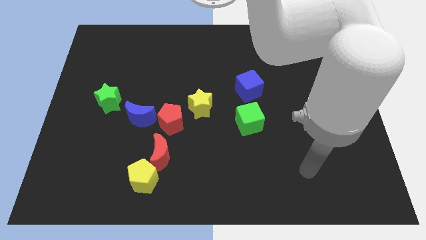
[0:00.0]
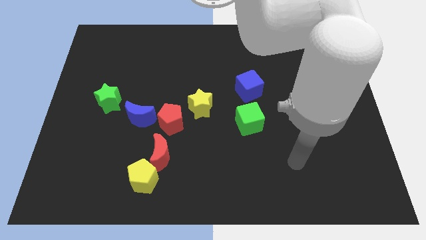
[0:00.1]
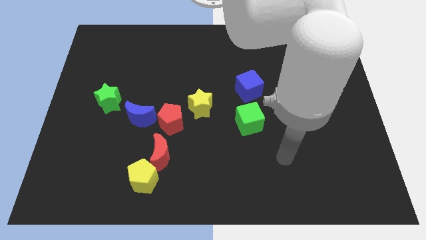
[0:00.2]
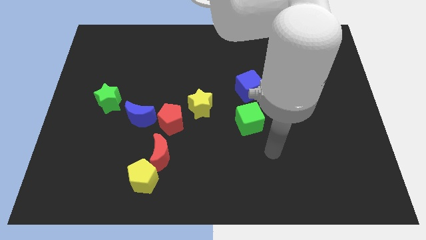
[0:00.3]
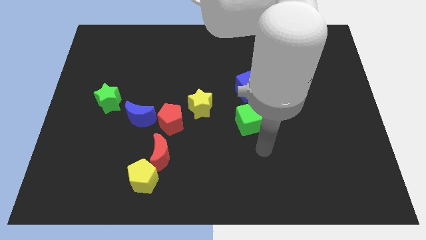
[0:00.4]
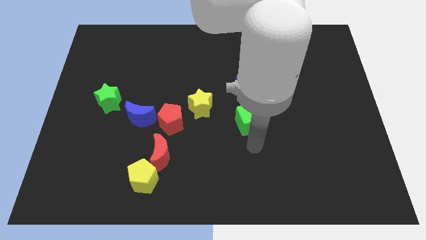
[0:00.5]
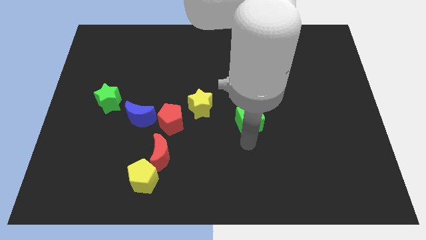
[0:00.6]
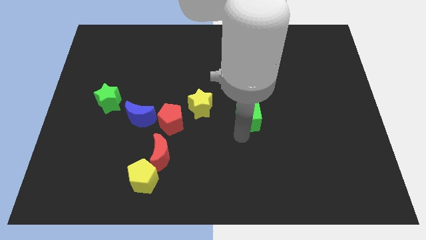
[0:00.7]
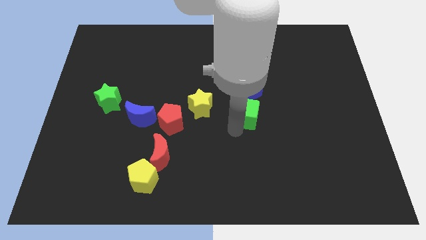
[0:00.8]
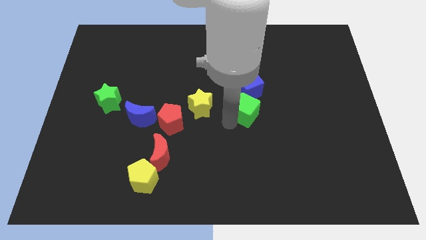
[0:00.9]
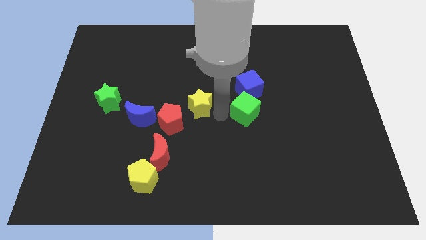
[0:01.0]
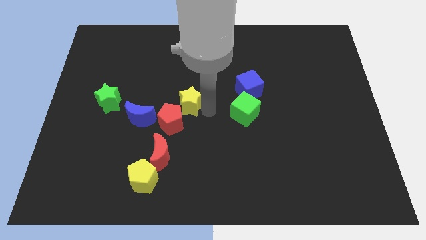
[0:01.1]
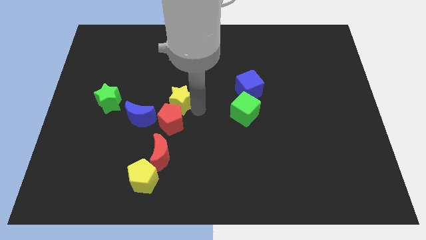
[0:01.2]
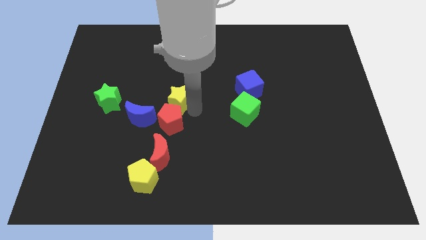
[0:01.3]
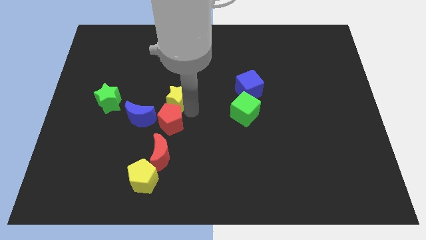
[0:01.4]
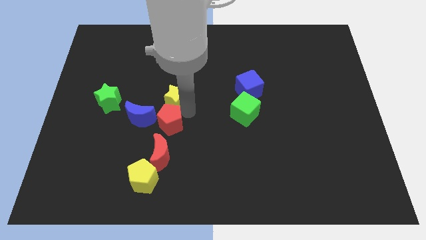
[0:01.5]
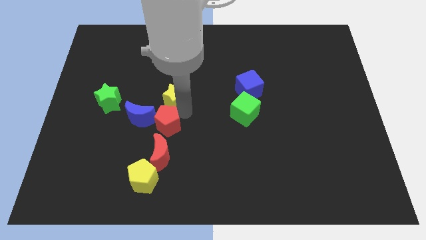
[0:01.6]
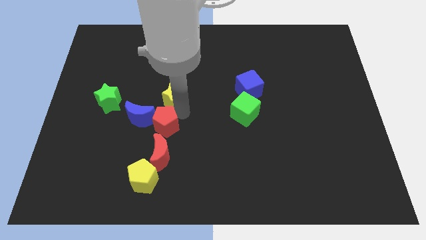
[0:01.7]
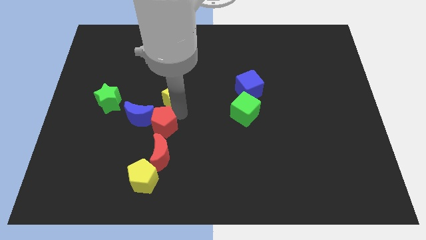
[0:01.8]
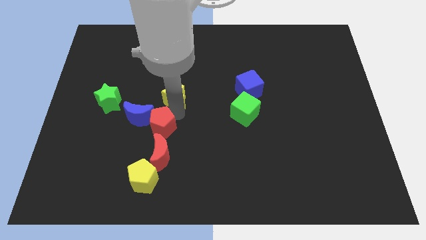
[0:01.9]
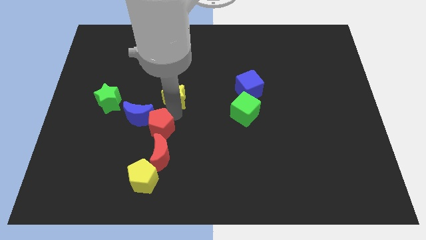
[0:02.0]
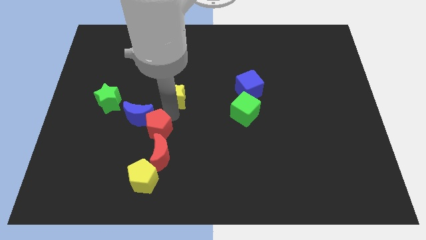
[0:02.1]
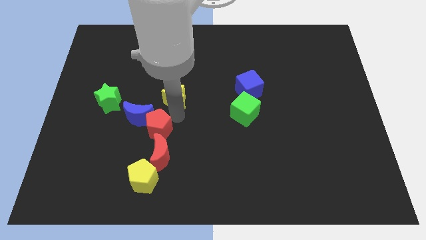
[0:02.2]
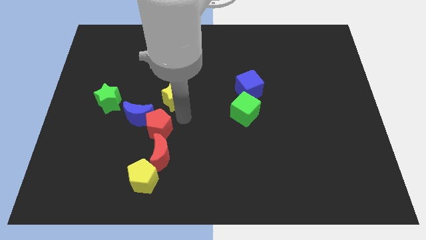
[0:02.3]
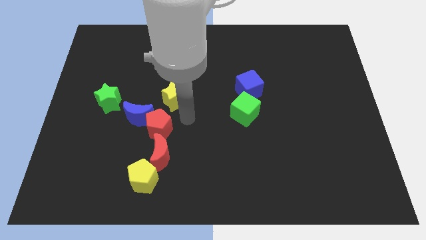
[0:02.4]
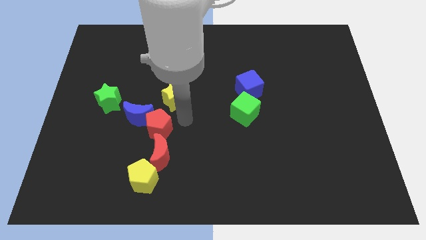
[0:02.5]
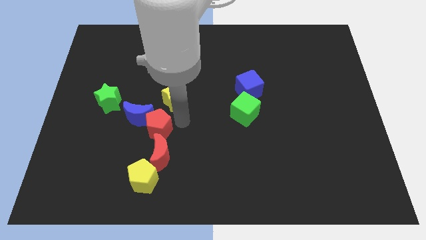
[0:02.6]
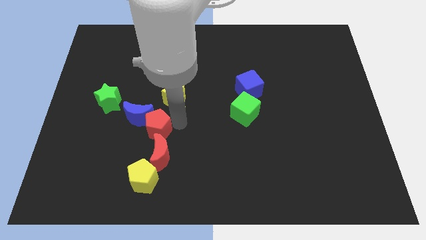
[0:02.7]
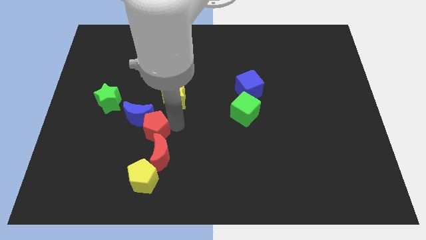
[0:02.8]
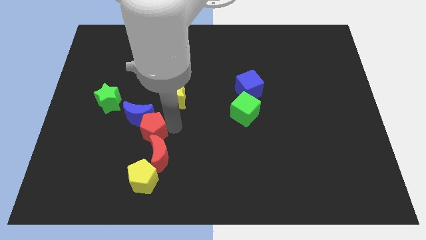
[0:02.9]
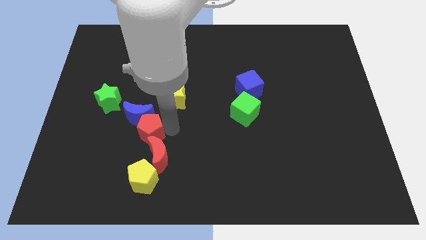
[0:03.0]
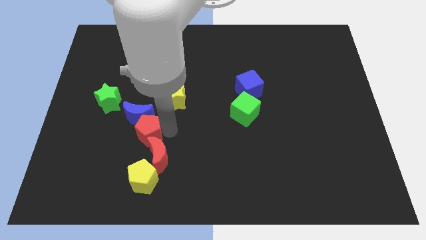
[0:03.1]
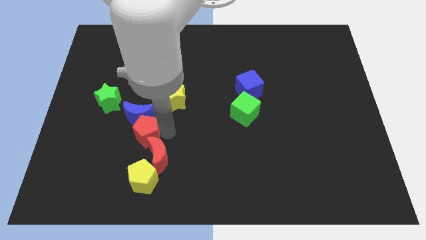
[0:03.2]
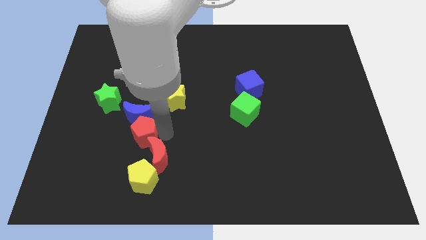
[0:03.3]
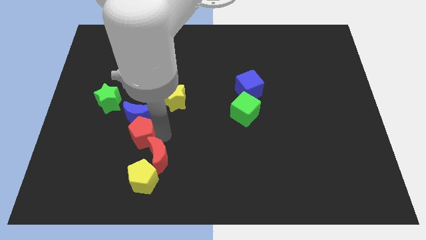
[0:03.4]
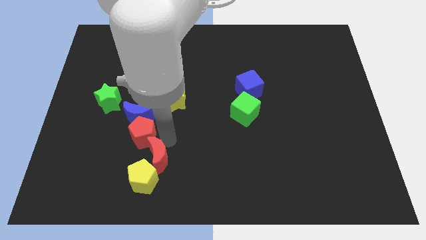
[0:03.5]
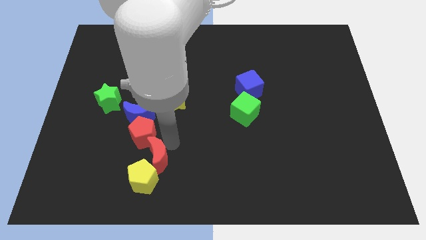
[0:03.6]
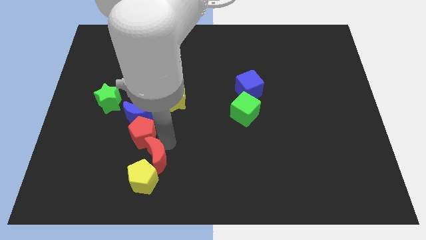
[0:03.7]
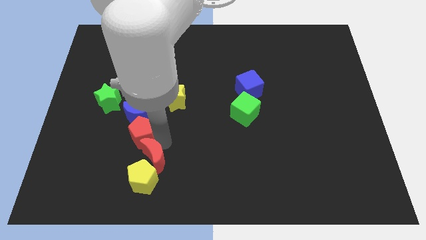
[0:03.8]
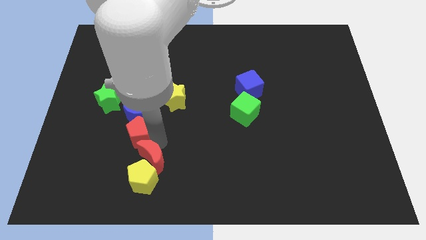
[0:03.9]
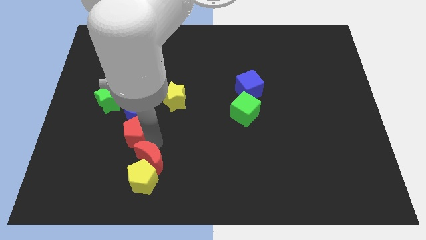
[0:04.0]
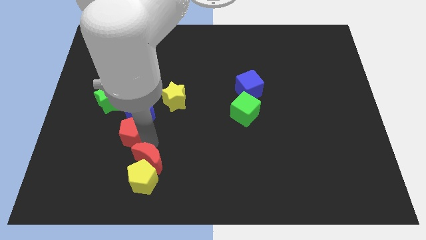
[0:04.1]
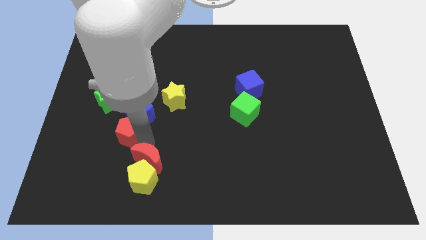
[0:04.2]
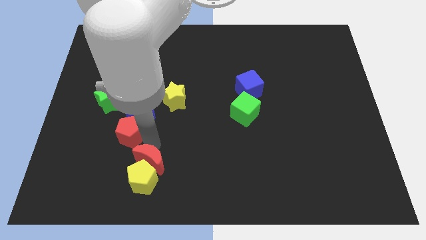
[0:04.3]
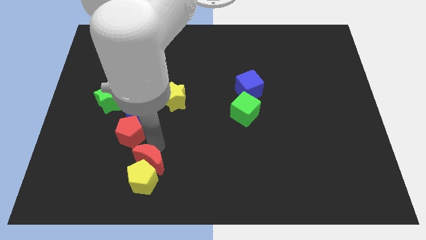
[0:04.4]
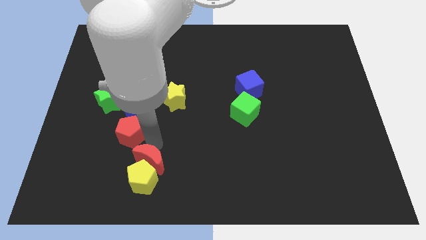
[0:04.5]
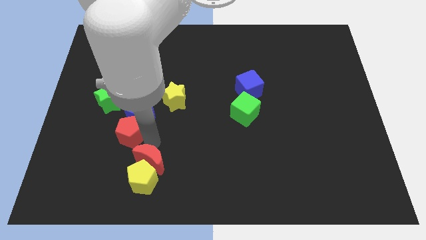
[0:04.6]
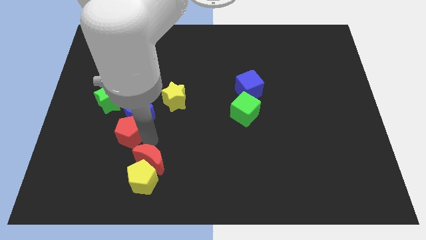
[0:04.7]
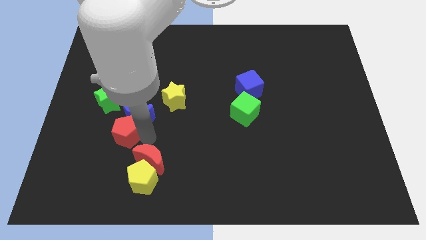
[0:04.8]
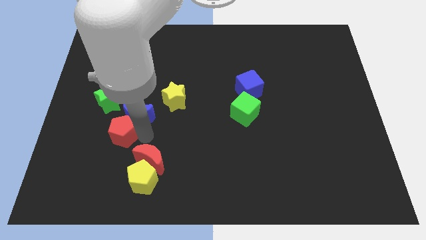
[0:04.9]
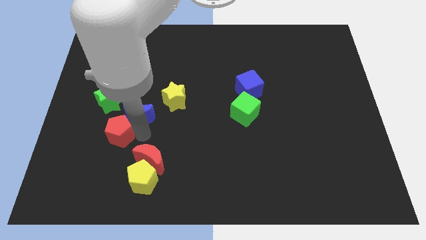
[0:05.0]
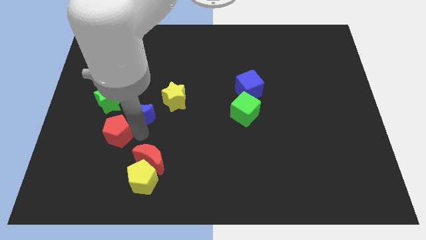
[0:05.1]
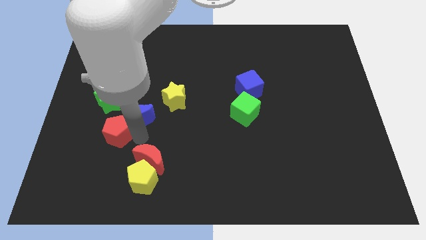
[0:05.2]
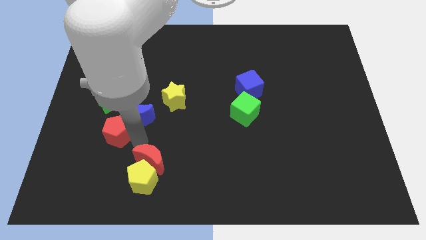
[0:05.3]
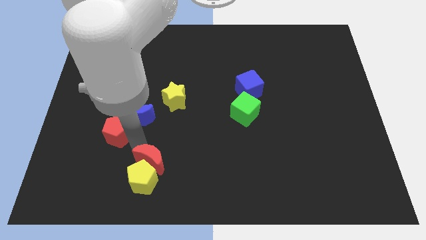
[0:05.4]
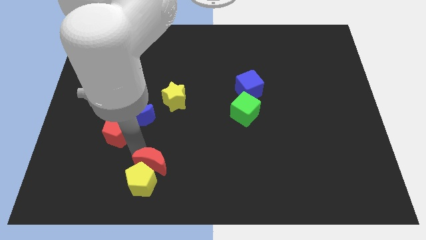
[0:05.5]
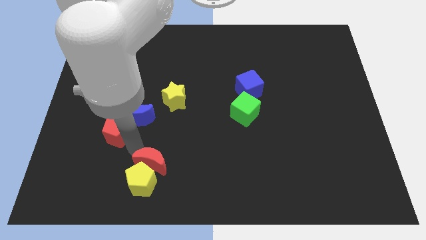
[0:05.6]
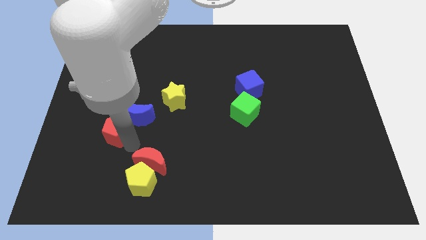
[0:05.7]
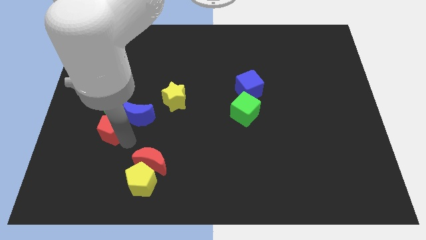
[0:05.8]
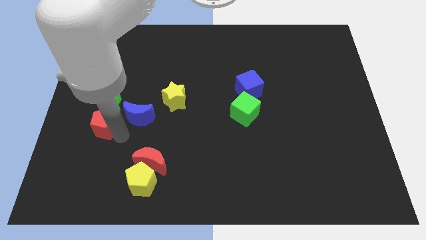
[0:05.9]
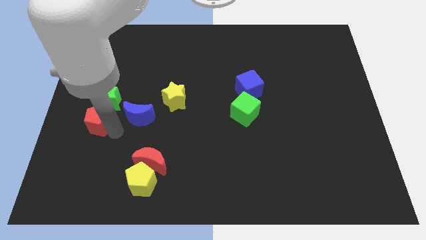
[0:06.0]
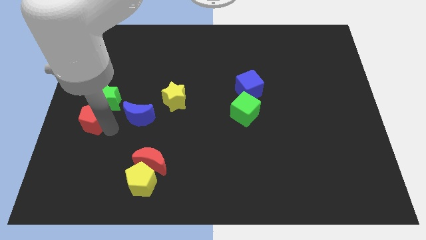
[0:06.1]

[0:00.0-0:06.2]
slide the red pentagon to the left side of the board
